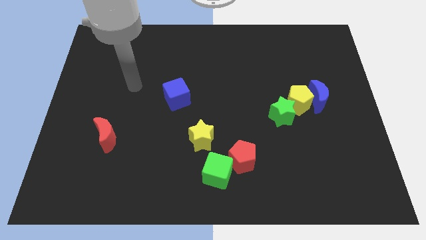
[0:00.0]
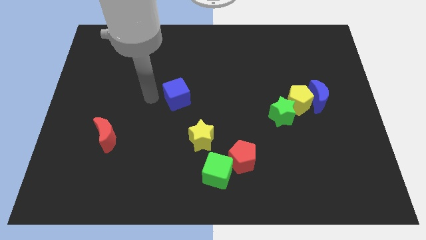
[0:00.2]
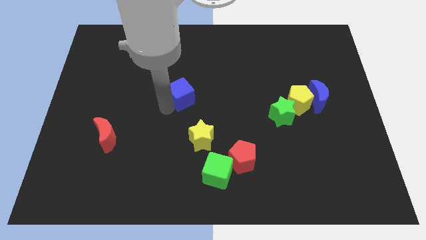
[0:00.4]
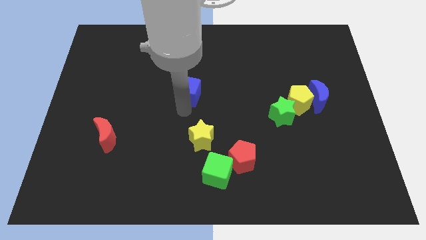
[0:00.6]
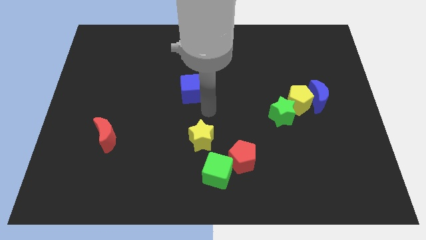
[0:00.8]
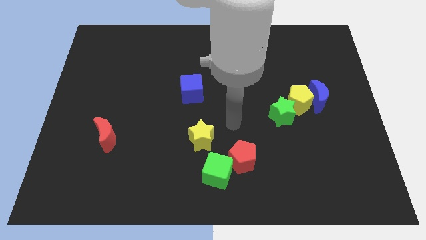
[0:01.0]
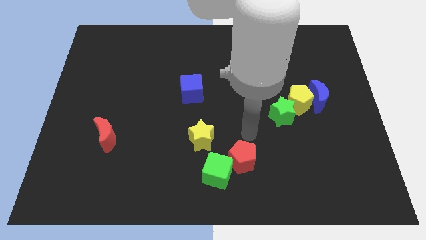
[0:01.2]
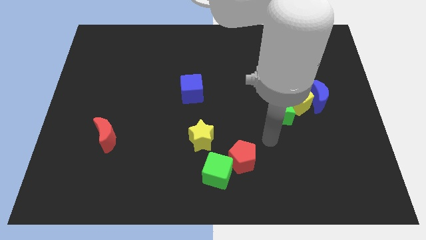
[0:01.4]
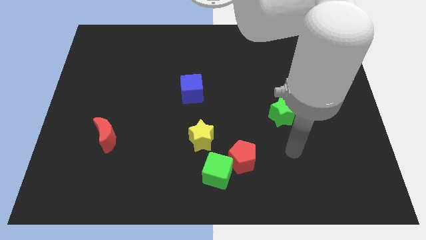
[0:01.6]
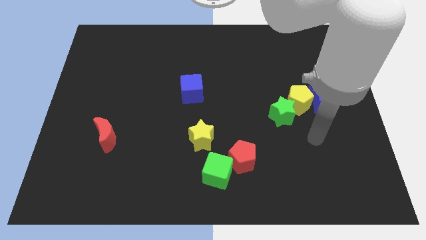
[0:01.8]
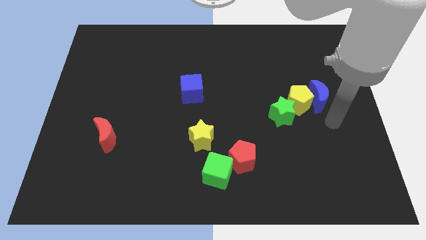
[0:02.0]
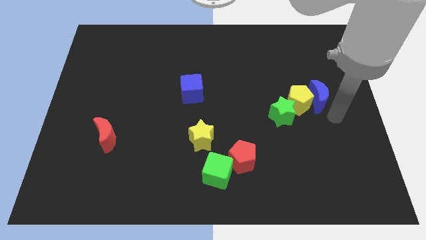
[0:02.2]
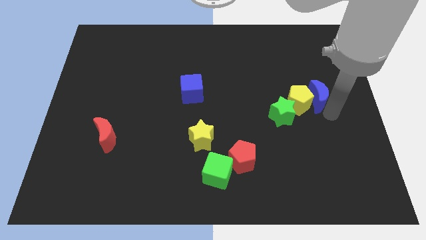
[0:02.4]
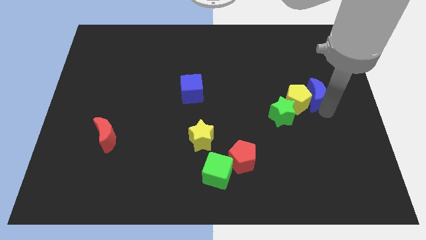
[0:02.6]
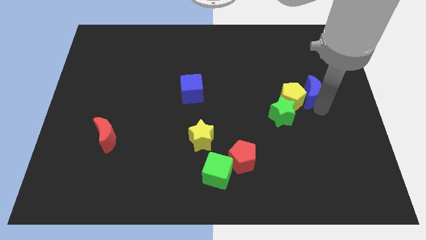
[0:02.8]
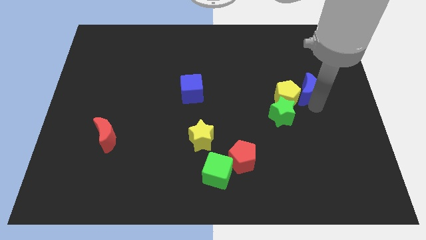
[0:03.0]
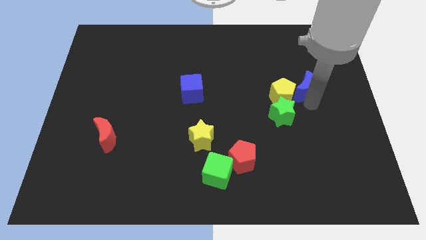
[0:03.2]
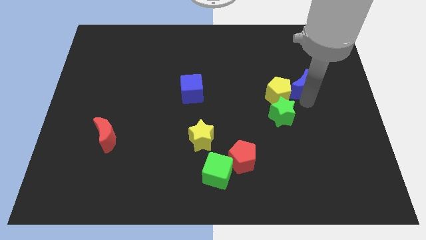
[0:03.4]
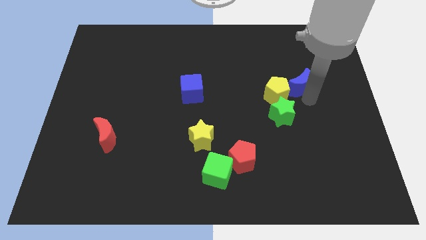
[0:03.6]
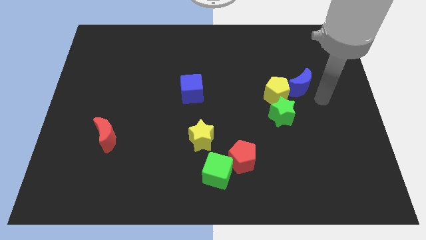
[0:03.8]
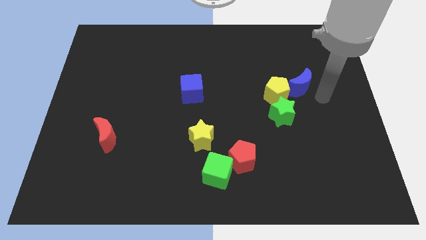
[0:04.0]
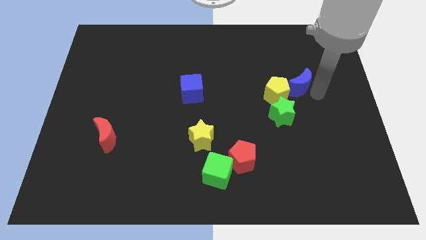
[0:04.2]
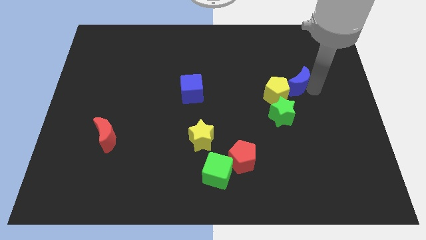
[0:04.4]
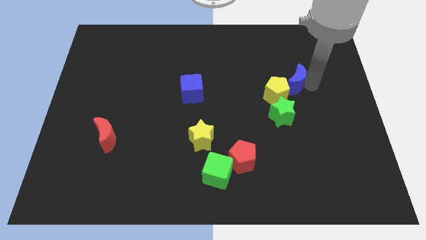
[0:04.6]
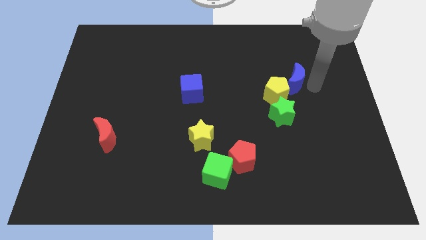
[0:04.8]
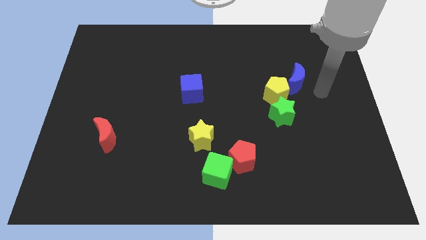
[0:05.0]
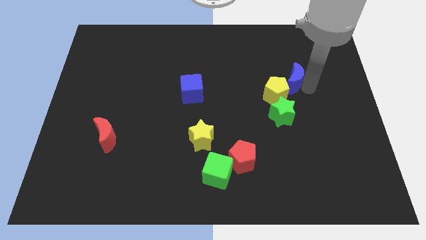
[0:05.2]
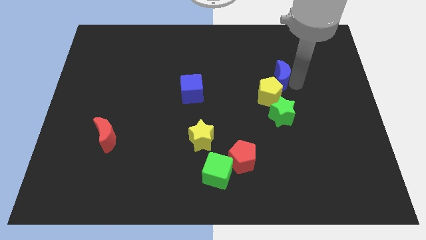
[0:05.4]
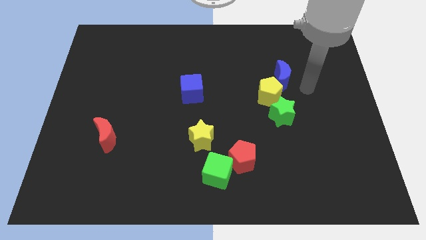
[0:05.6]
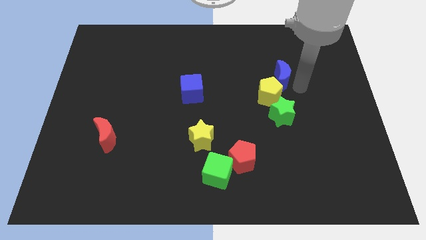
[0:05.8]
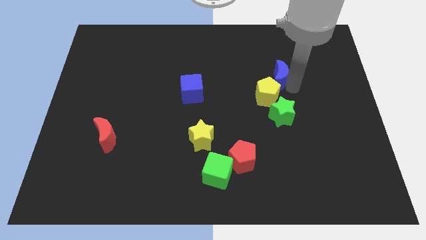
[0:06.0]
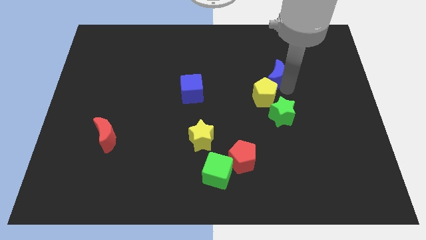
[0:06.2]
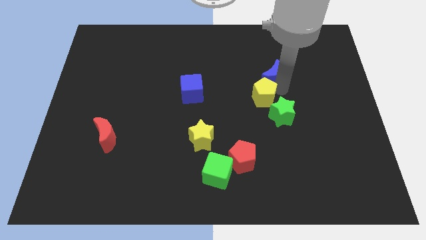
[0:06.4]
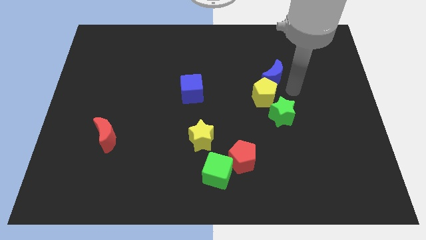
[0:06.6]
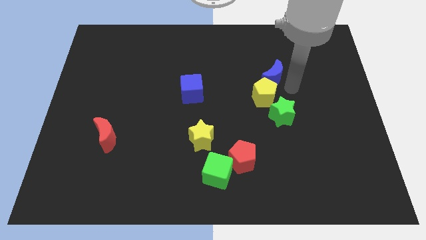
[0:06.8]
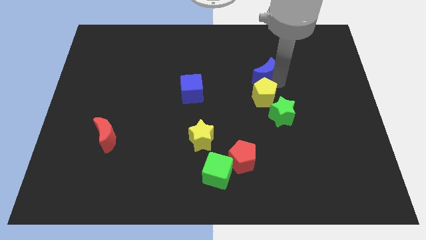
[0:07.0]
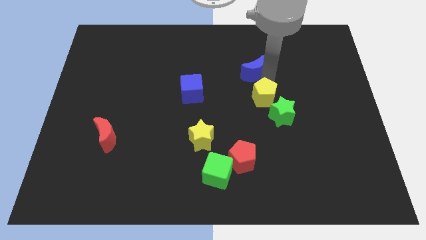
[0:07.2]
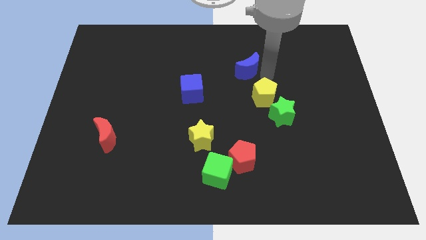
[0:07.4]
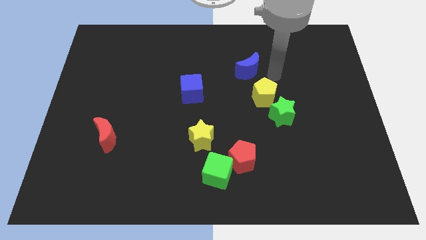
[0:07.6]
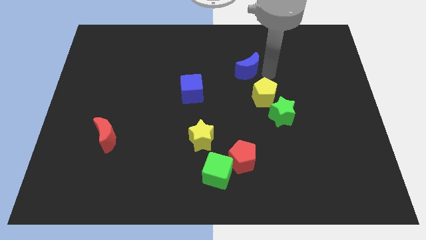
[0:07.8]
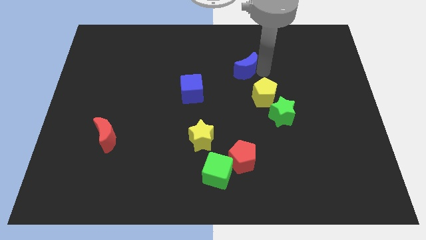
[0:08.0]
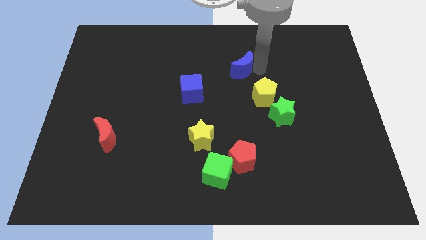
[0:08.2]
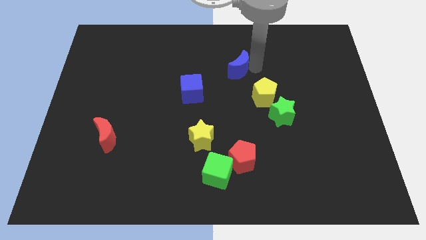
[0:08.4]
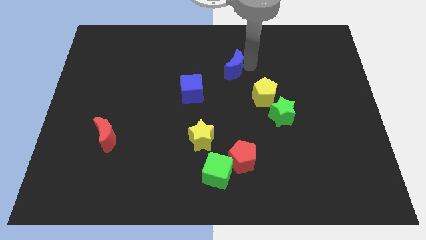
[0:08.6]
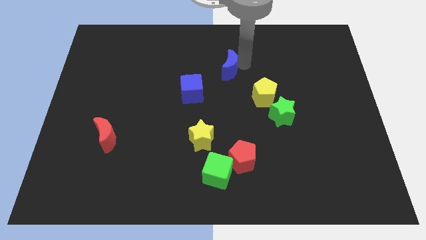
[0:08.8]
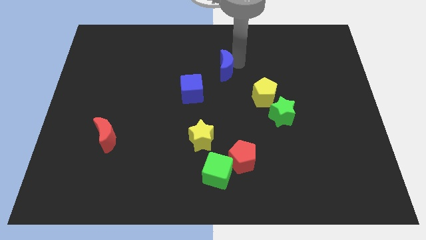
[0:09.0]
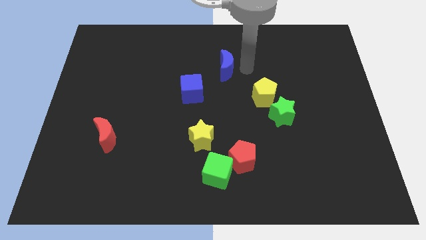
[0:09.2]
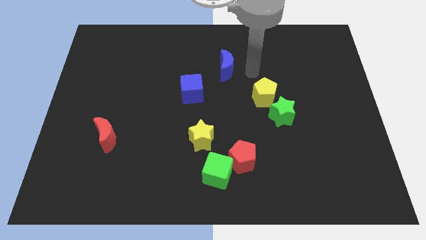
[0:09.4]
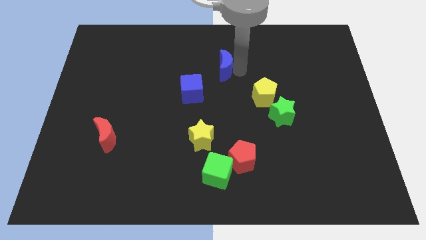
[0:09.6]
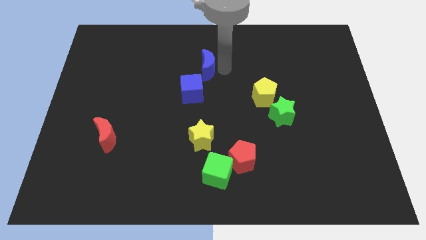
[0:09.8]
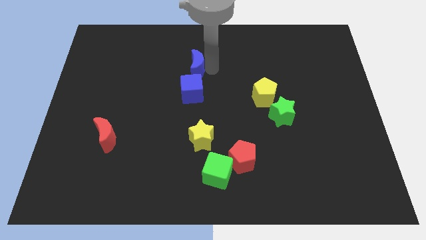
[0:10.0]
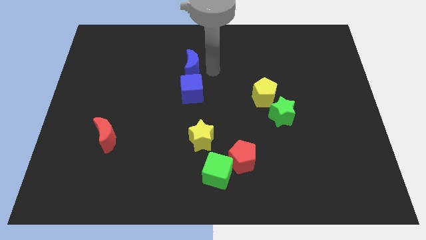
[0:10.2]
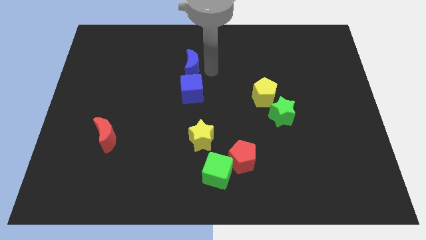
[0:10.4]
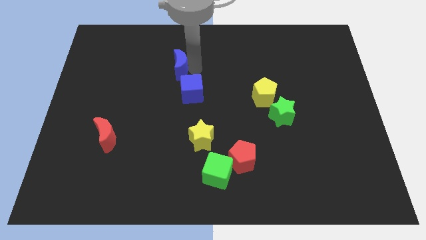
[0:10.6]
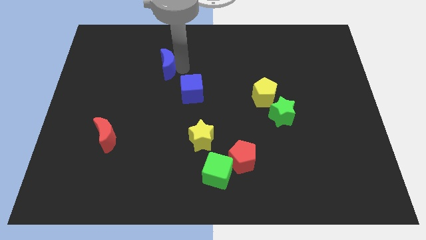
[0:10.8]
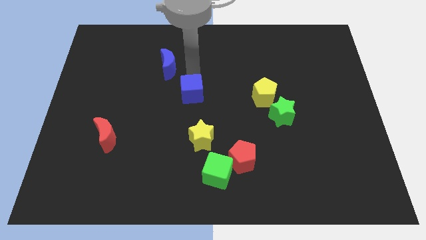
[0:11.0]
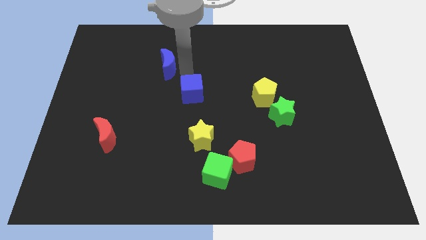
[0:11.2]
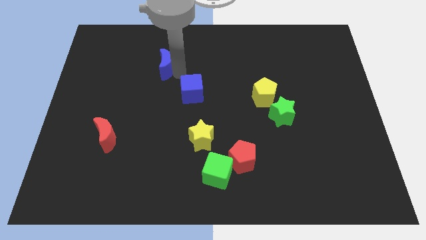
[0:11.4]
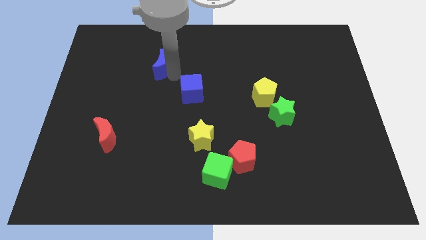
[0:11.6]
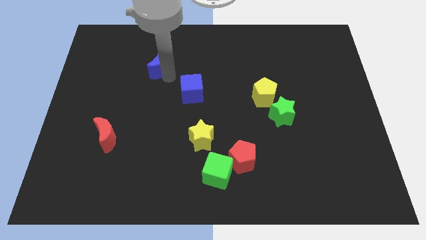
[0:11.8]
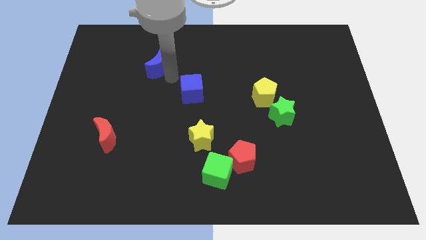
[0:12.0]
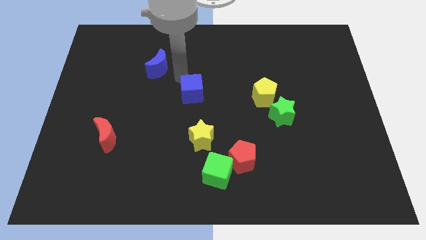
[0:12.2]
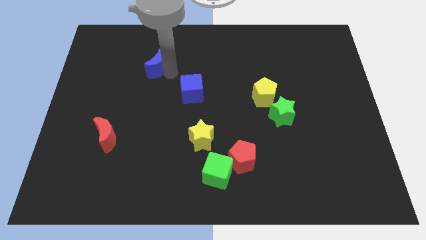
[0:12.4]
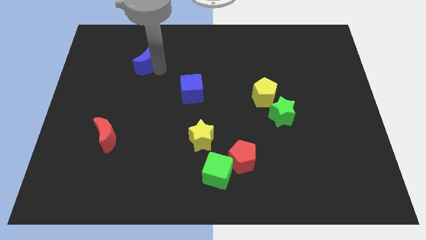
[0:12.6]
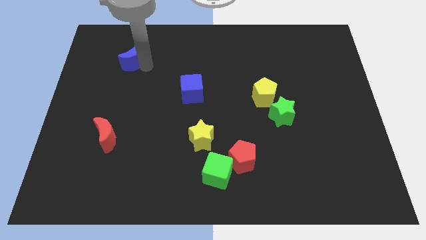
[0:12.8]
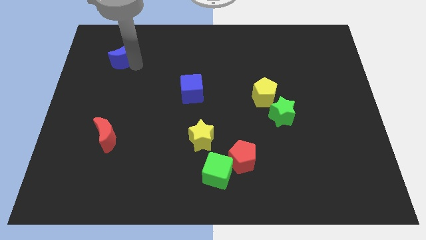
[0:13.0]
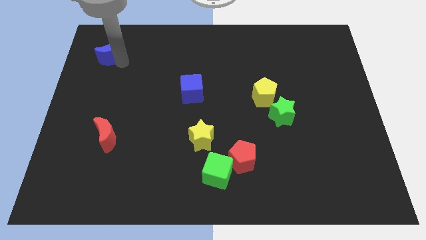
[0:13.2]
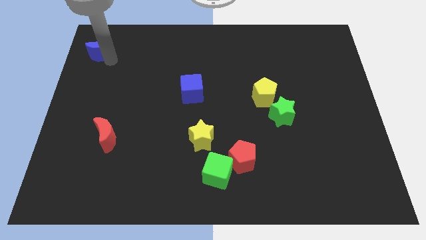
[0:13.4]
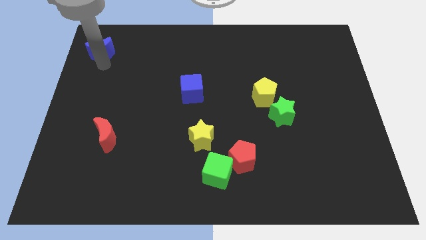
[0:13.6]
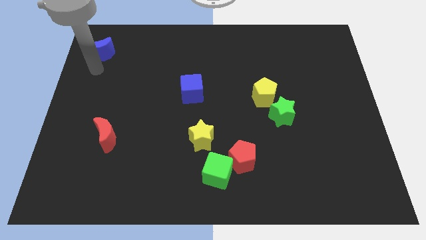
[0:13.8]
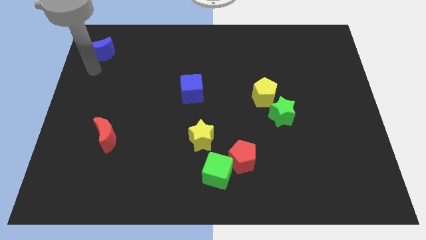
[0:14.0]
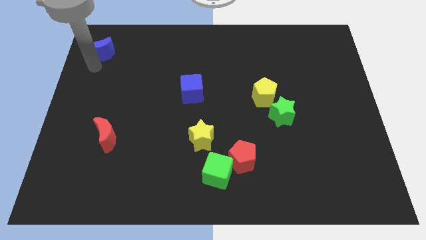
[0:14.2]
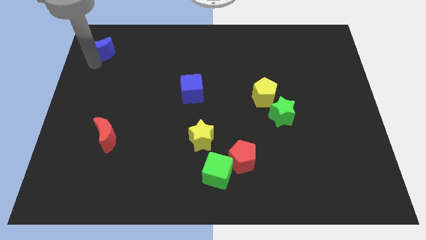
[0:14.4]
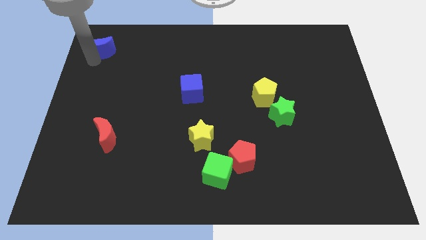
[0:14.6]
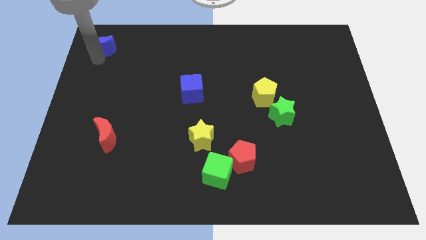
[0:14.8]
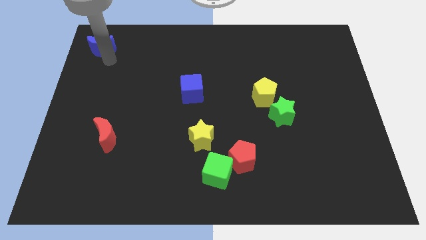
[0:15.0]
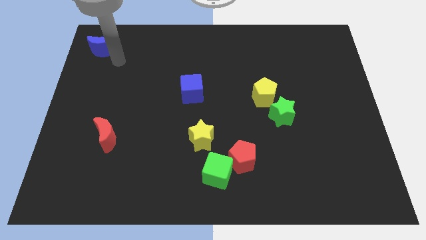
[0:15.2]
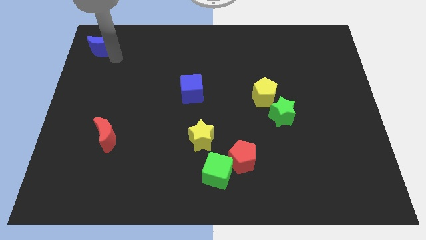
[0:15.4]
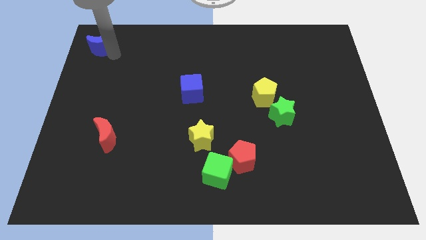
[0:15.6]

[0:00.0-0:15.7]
move the blue moon to the top left of the board
